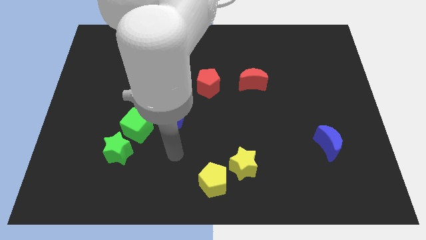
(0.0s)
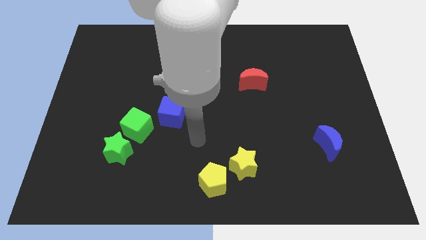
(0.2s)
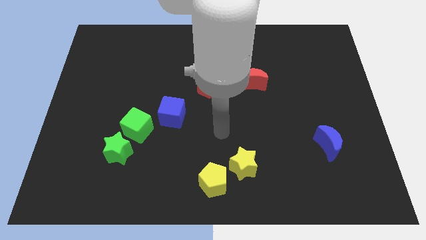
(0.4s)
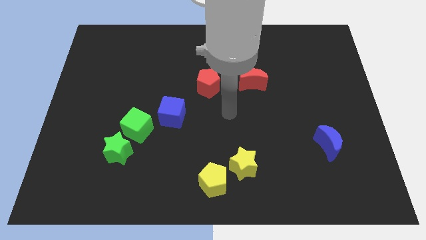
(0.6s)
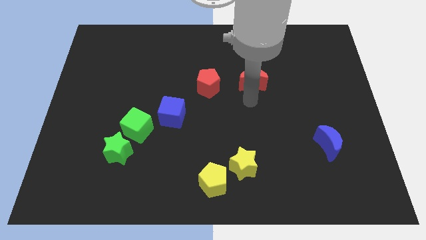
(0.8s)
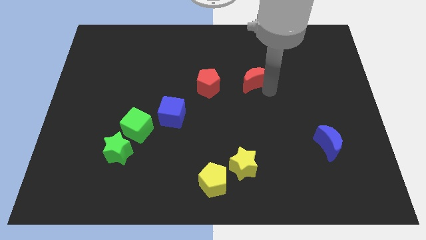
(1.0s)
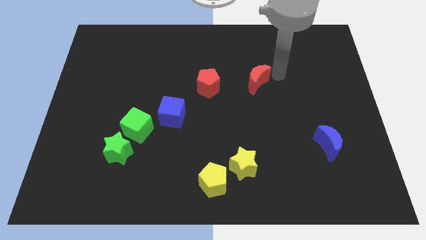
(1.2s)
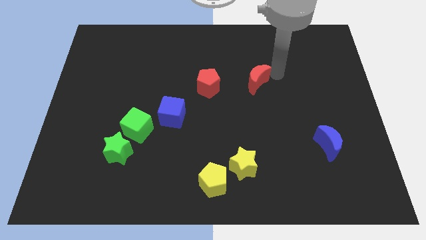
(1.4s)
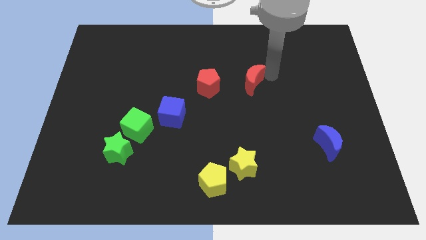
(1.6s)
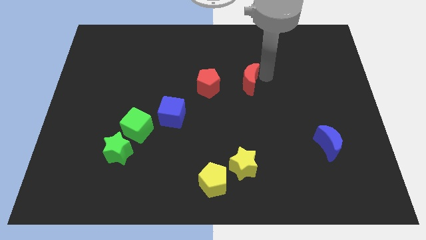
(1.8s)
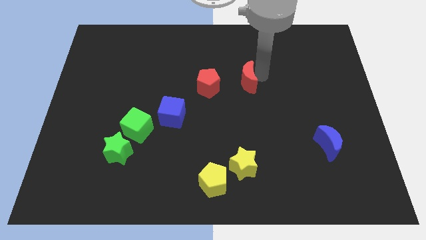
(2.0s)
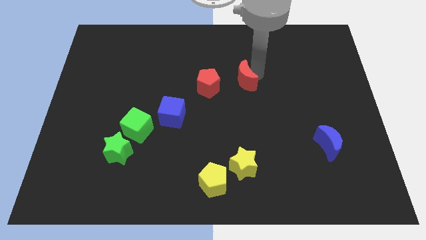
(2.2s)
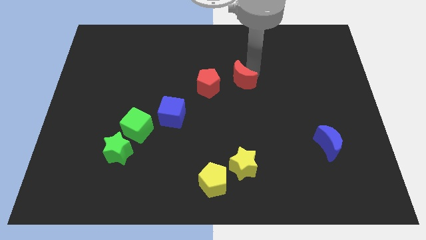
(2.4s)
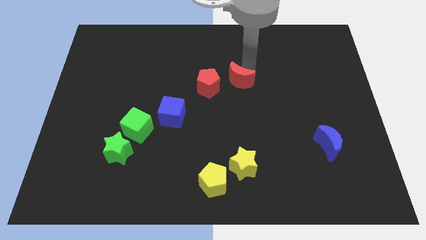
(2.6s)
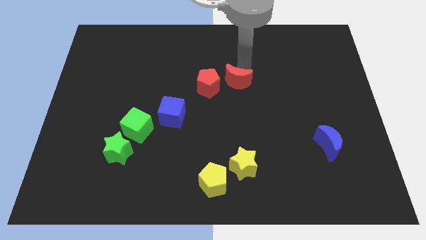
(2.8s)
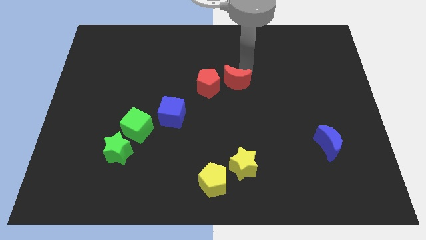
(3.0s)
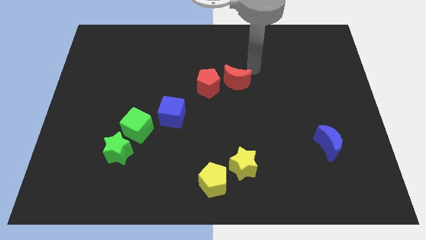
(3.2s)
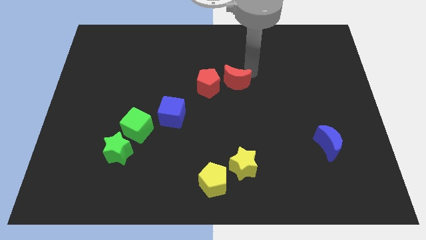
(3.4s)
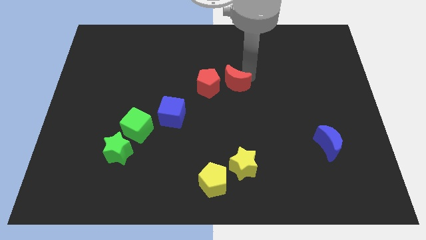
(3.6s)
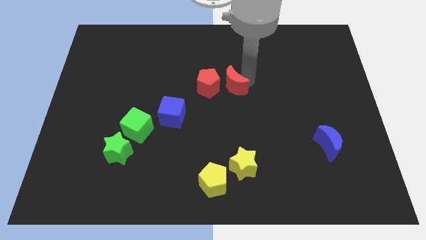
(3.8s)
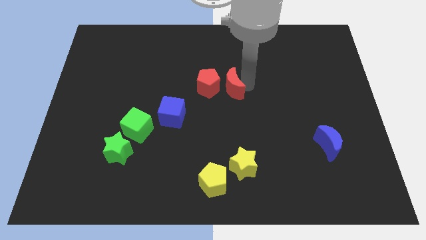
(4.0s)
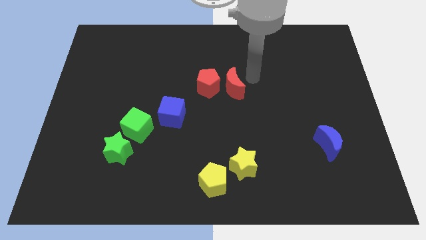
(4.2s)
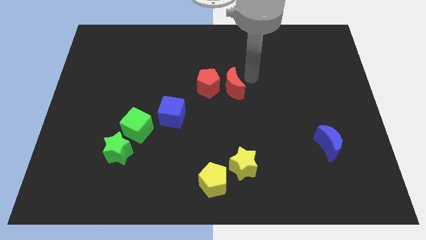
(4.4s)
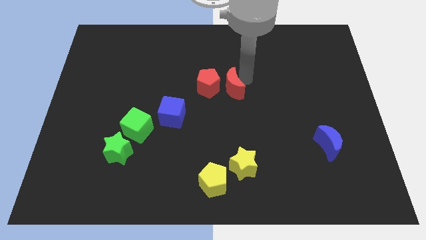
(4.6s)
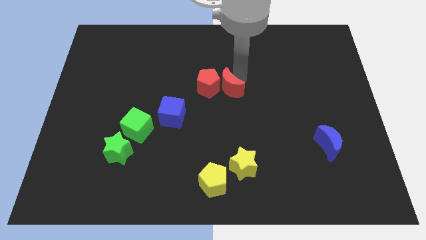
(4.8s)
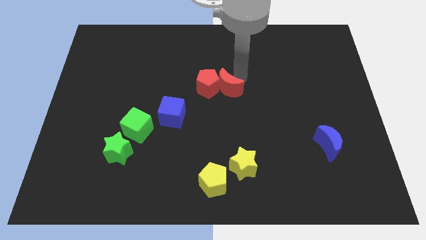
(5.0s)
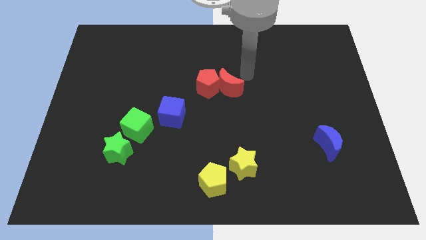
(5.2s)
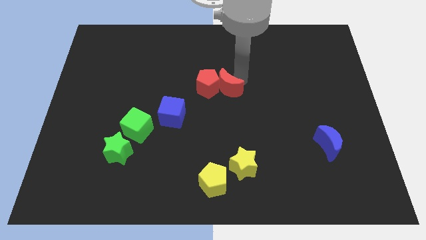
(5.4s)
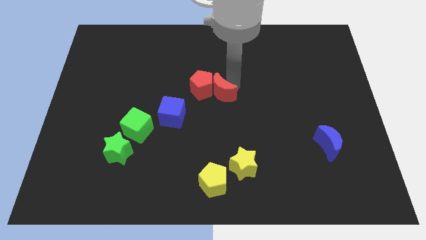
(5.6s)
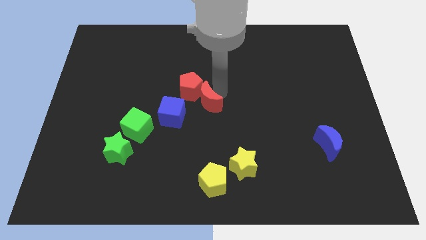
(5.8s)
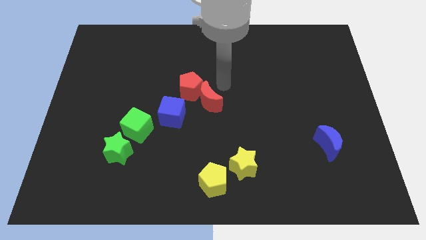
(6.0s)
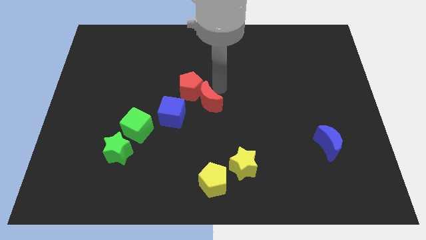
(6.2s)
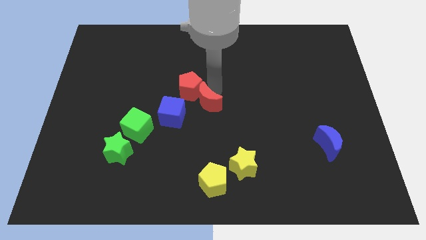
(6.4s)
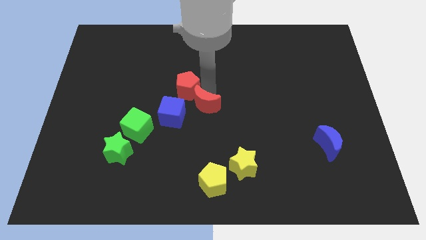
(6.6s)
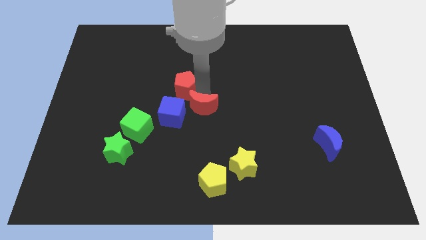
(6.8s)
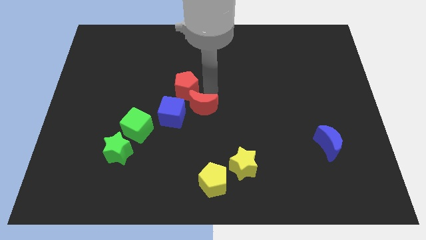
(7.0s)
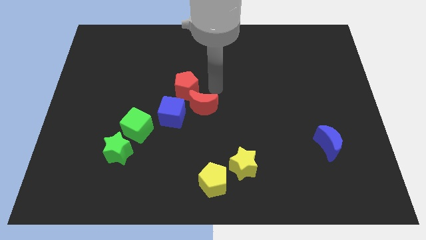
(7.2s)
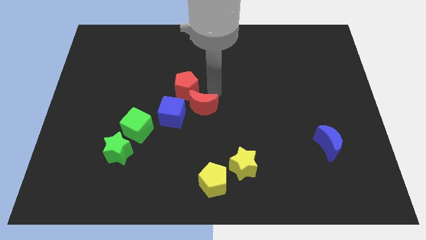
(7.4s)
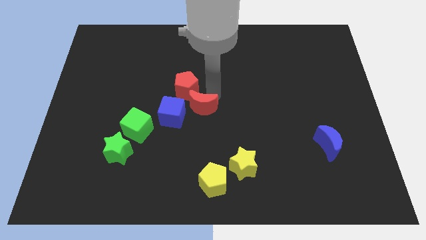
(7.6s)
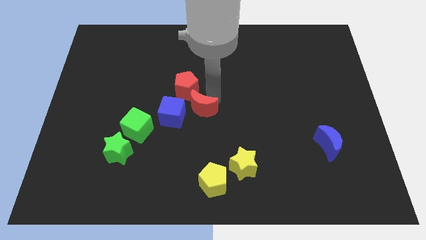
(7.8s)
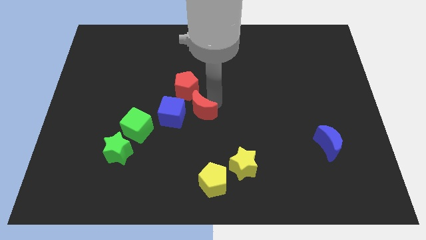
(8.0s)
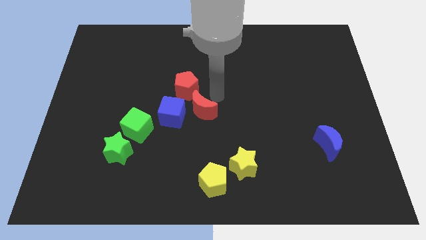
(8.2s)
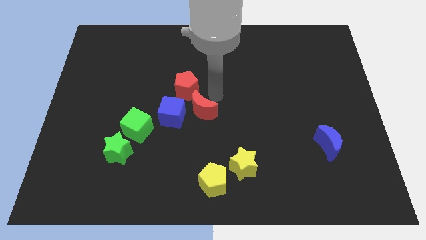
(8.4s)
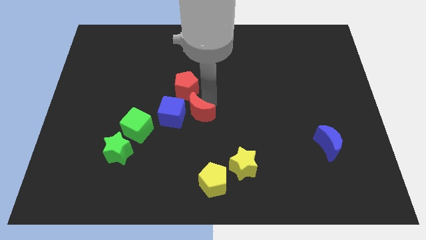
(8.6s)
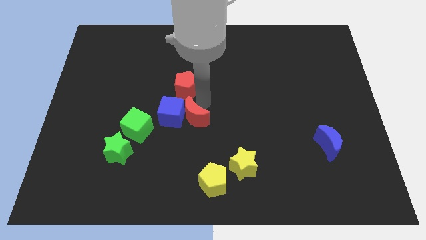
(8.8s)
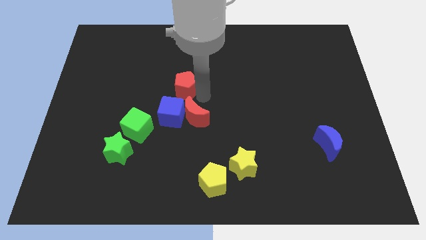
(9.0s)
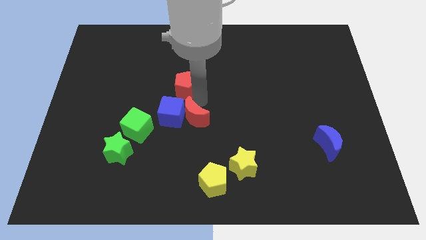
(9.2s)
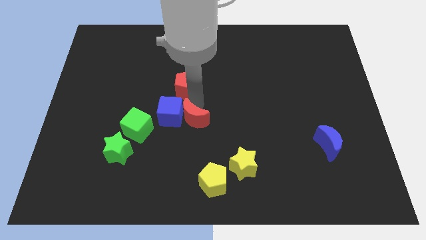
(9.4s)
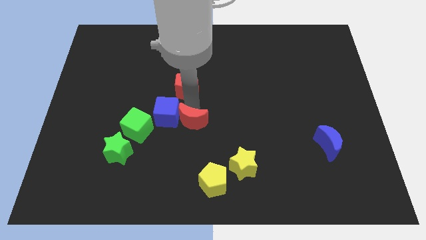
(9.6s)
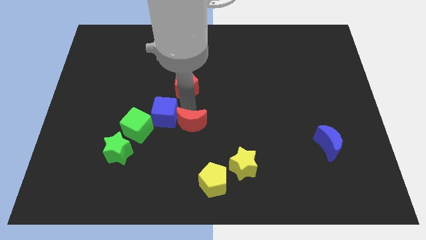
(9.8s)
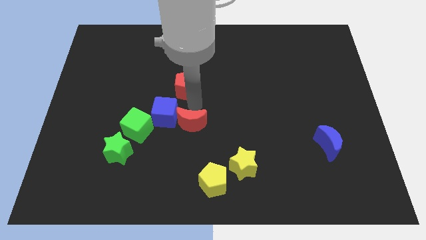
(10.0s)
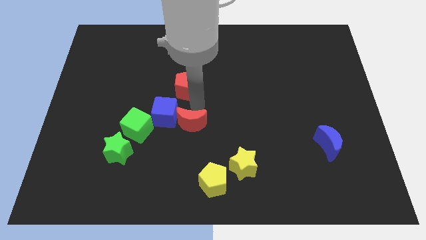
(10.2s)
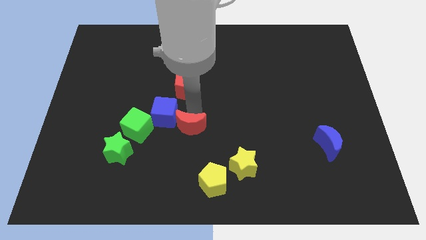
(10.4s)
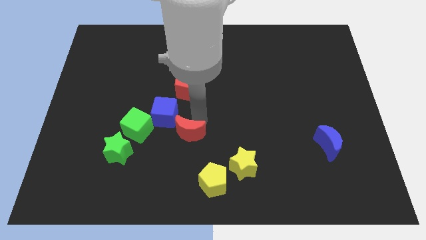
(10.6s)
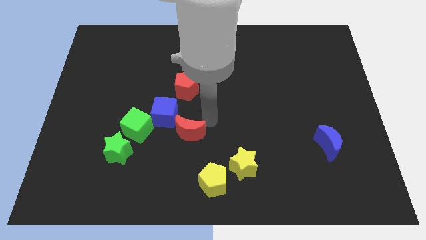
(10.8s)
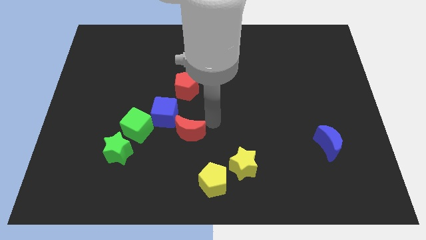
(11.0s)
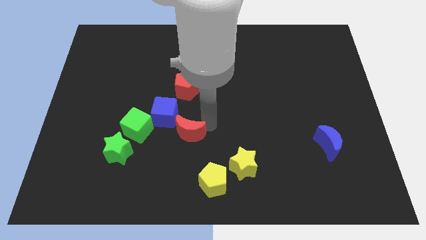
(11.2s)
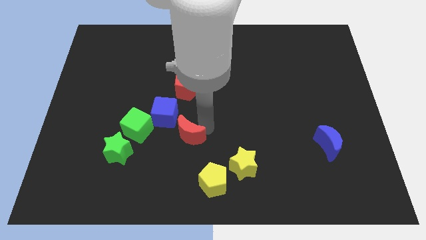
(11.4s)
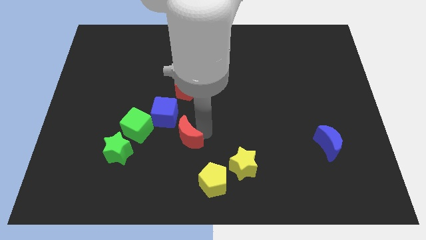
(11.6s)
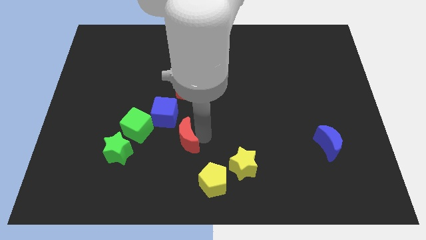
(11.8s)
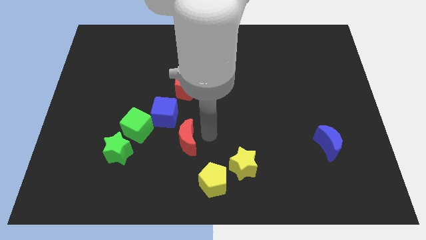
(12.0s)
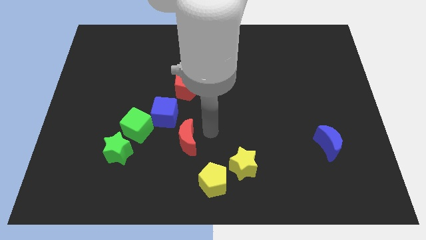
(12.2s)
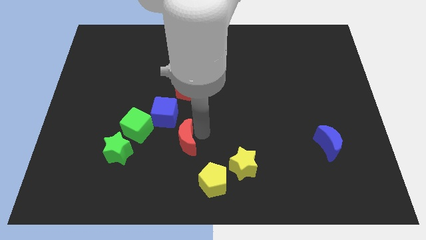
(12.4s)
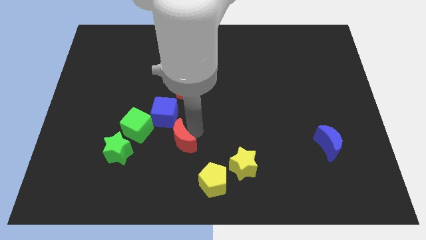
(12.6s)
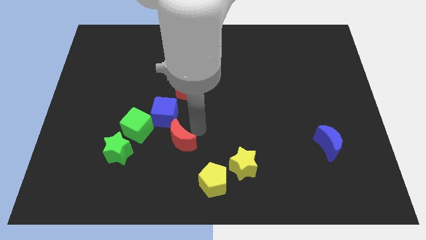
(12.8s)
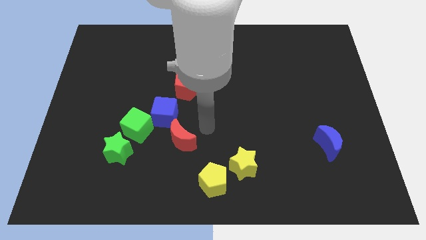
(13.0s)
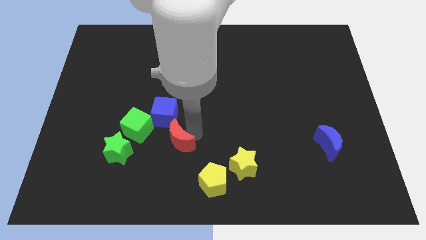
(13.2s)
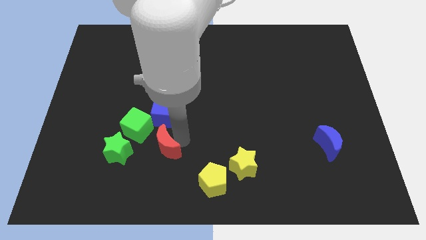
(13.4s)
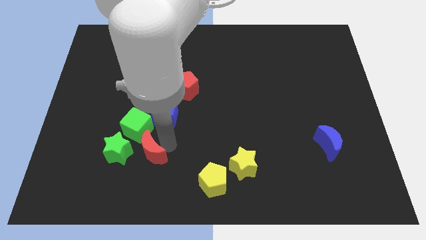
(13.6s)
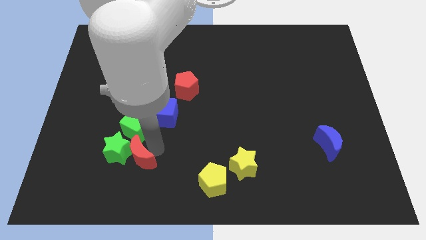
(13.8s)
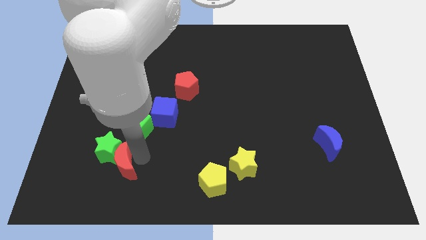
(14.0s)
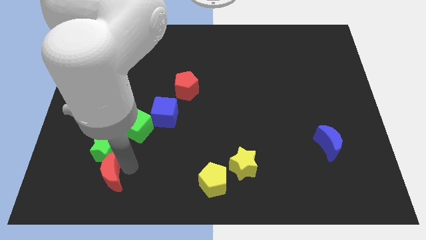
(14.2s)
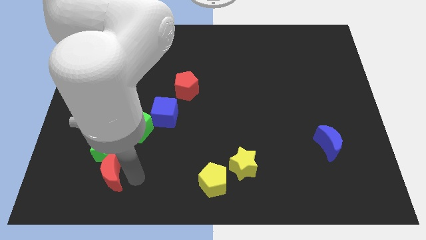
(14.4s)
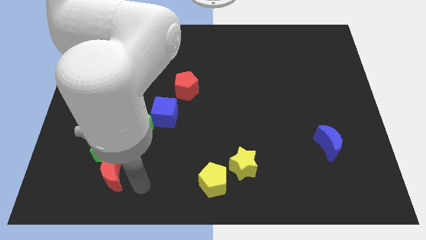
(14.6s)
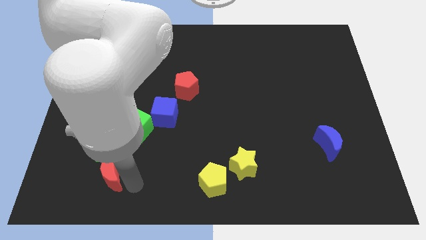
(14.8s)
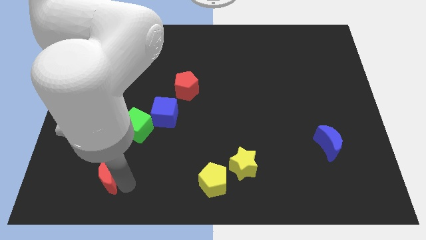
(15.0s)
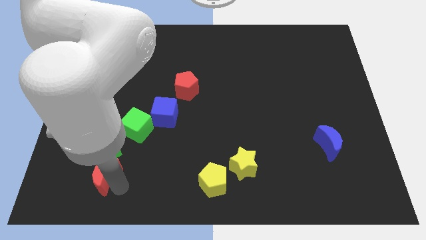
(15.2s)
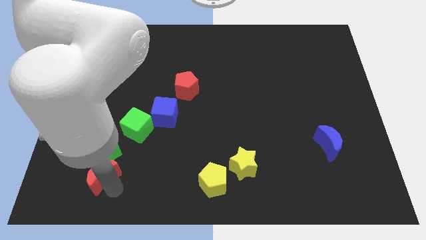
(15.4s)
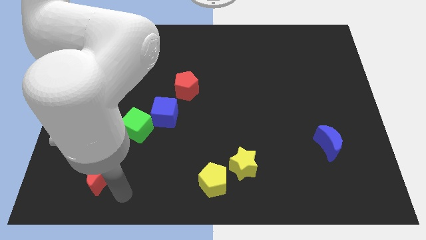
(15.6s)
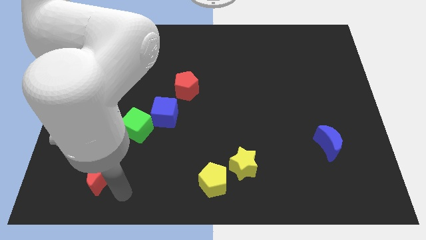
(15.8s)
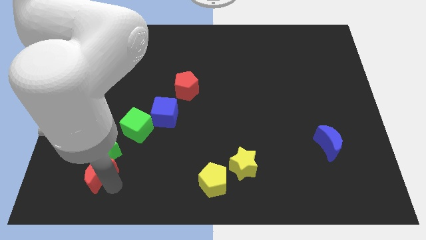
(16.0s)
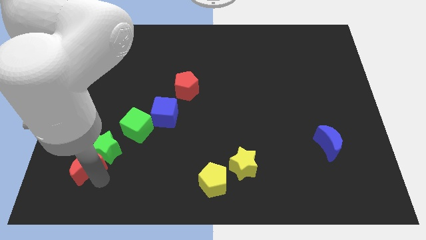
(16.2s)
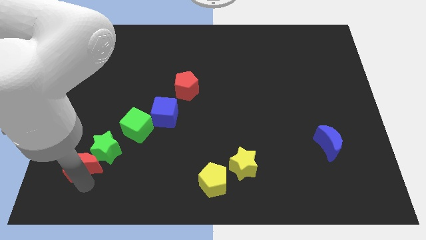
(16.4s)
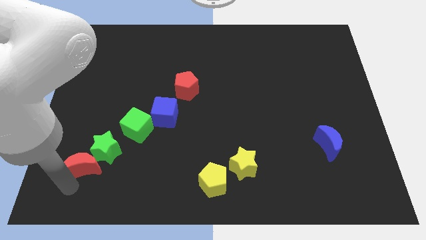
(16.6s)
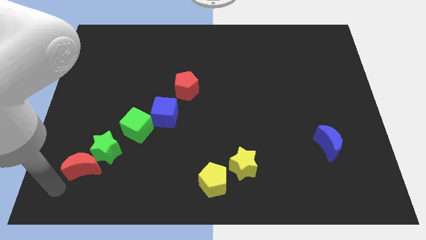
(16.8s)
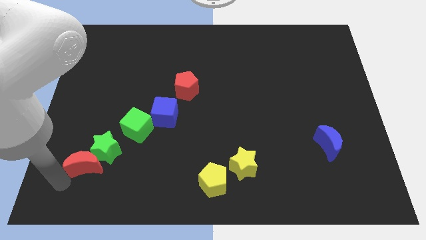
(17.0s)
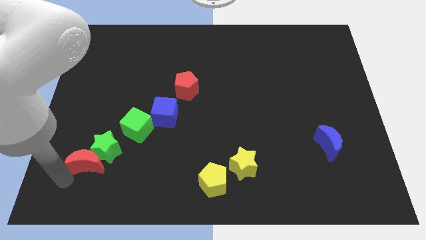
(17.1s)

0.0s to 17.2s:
push the red moon to the bottom left of the green cube
